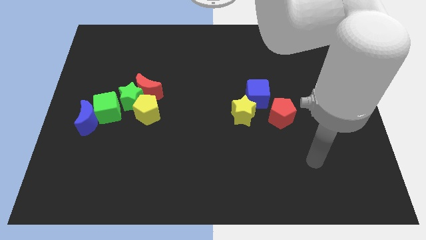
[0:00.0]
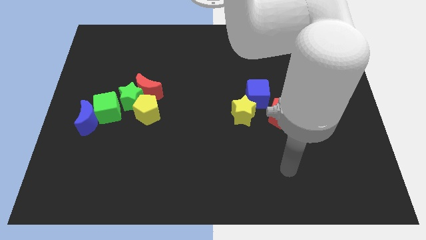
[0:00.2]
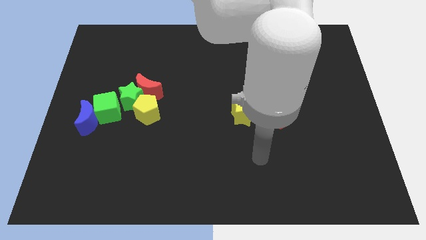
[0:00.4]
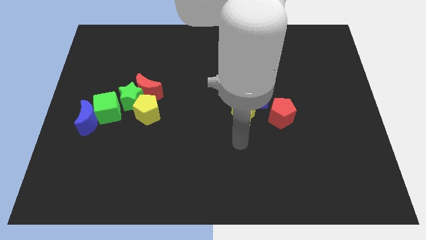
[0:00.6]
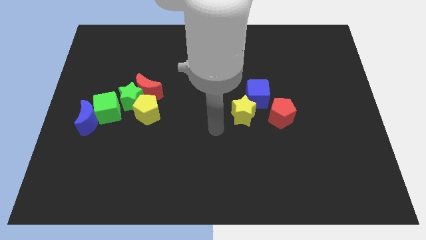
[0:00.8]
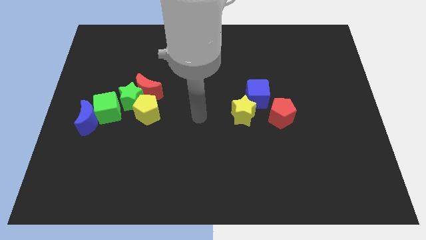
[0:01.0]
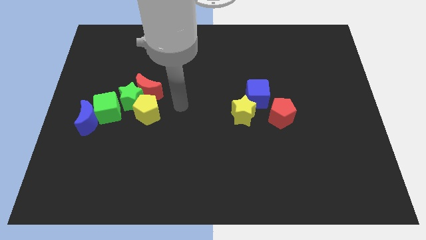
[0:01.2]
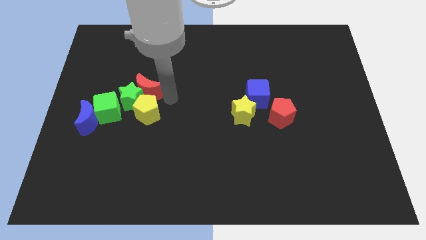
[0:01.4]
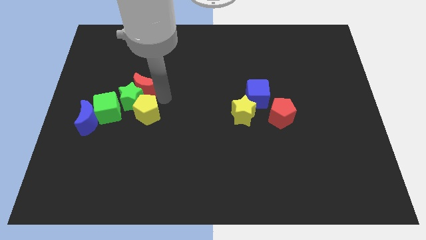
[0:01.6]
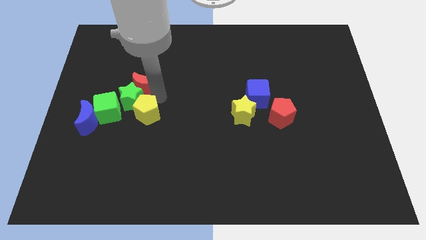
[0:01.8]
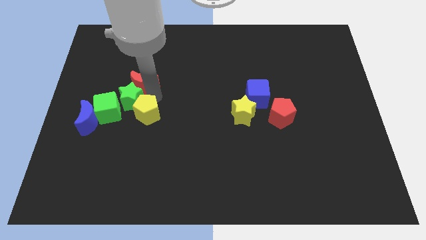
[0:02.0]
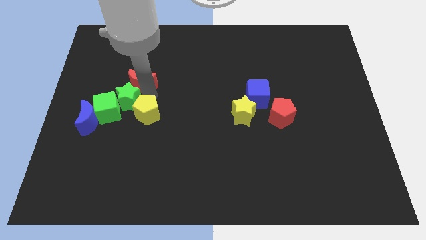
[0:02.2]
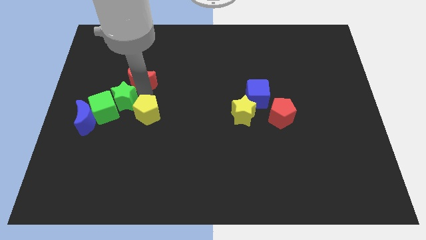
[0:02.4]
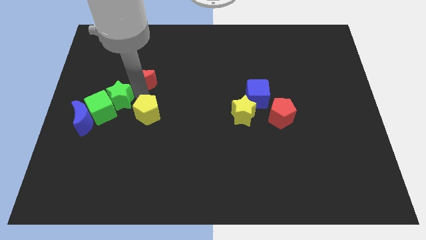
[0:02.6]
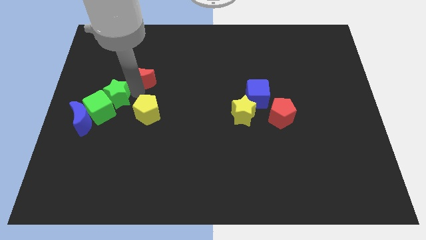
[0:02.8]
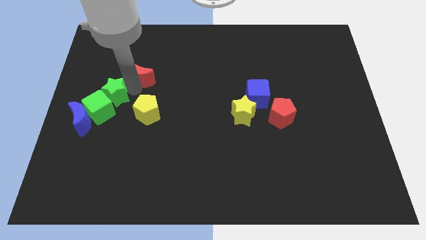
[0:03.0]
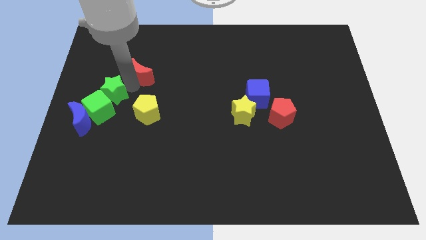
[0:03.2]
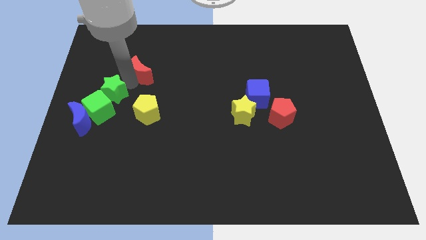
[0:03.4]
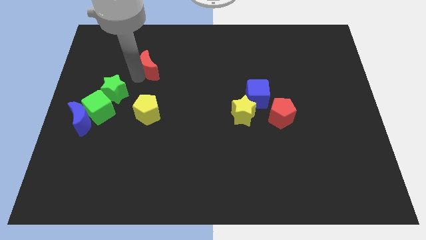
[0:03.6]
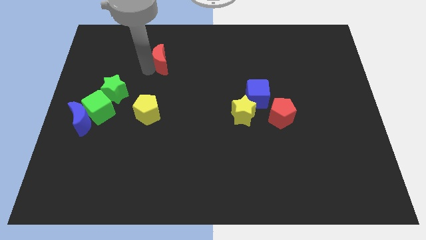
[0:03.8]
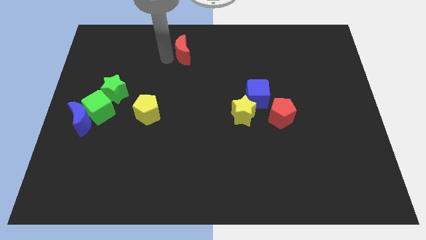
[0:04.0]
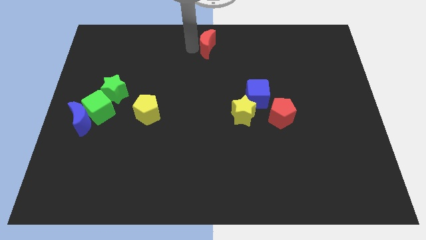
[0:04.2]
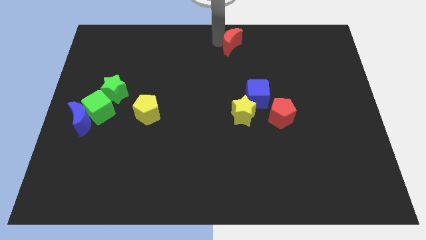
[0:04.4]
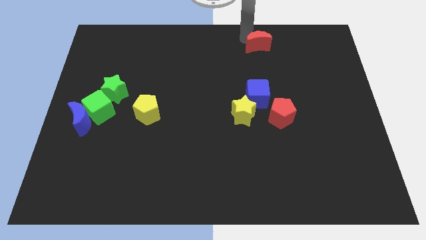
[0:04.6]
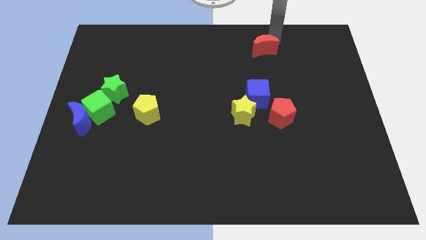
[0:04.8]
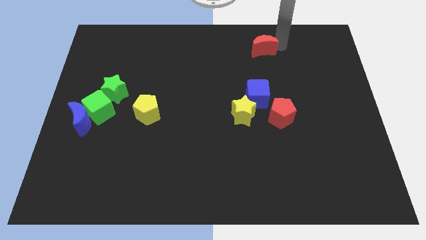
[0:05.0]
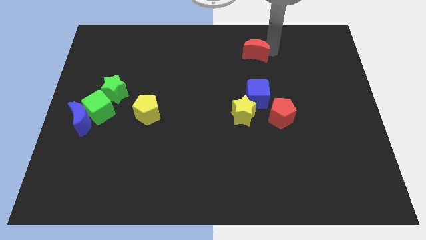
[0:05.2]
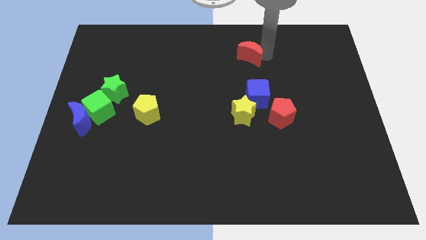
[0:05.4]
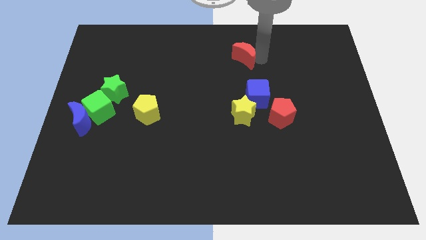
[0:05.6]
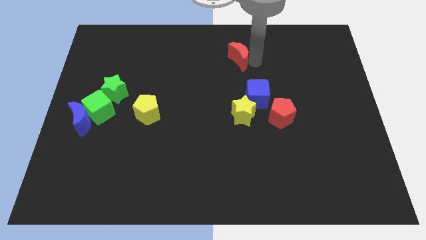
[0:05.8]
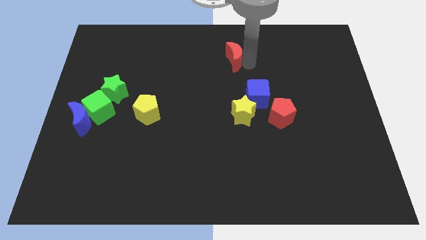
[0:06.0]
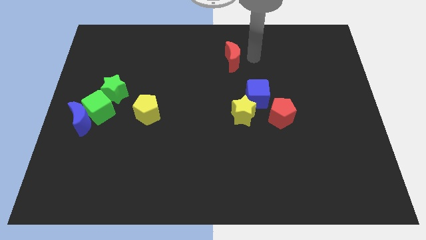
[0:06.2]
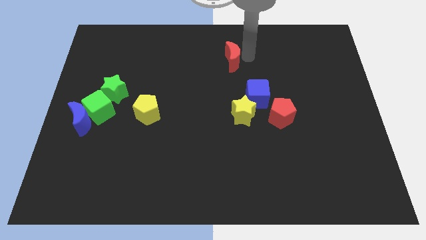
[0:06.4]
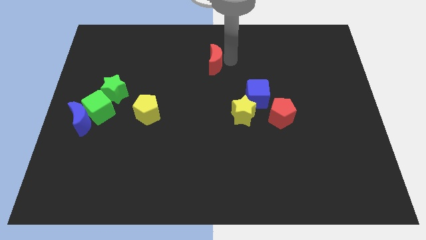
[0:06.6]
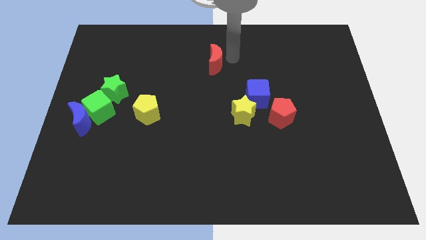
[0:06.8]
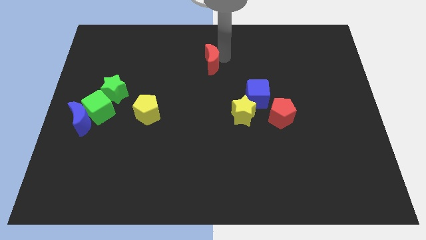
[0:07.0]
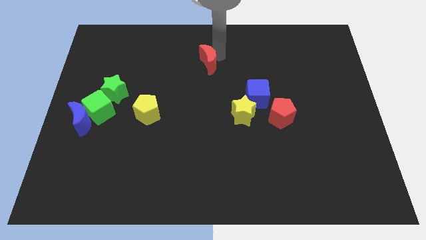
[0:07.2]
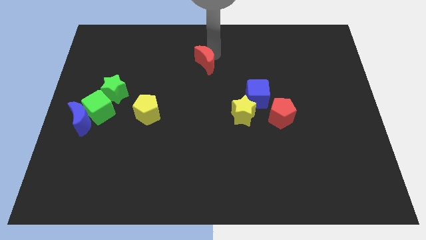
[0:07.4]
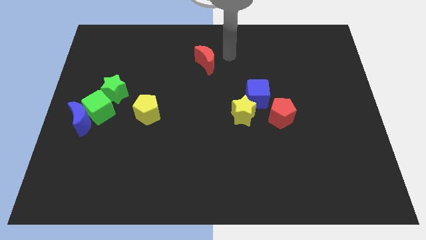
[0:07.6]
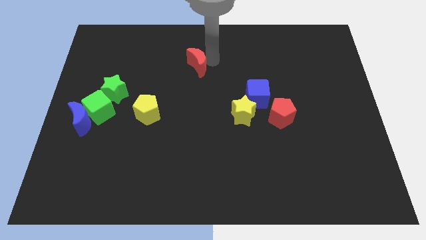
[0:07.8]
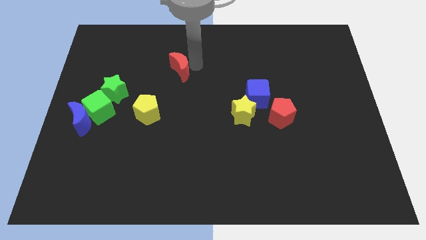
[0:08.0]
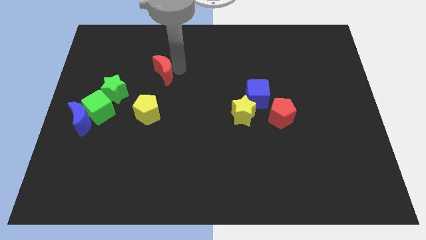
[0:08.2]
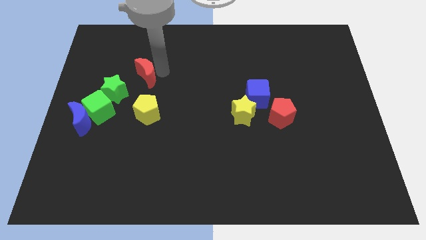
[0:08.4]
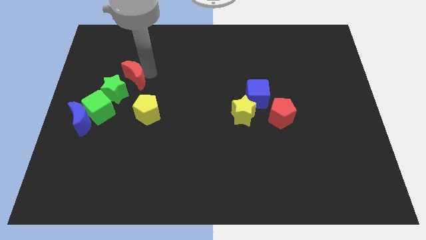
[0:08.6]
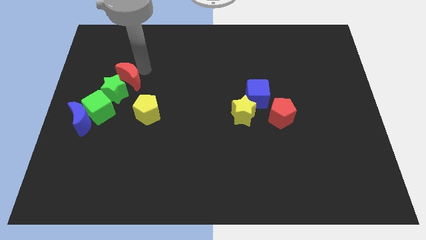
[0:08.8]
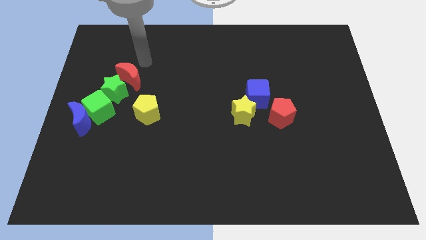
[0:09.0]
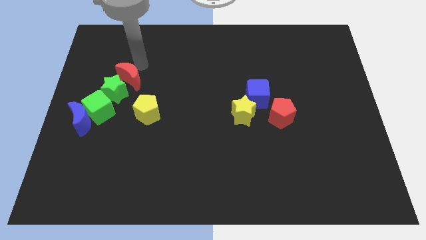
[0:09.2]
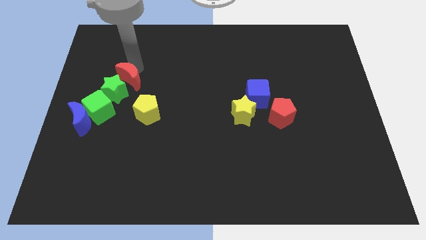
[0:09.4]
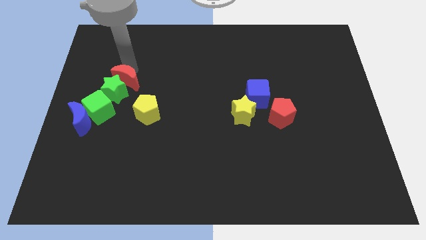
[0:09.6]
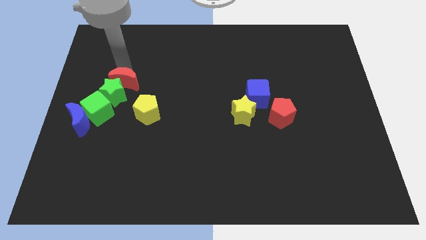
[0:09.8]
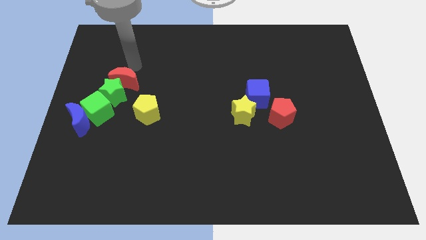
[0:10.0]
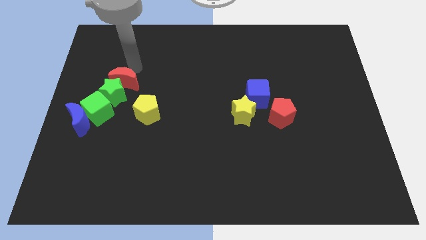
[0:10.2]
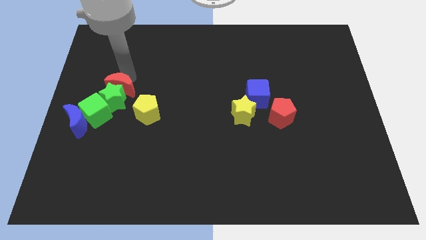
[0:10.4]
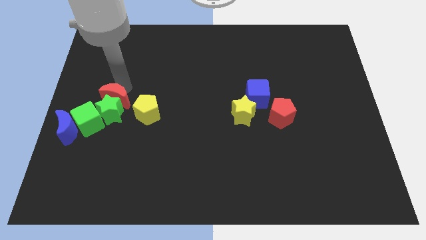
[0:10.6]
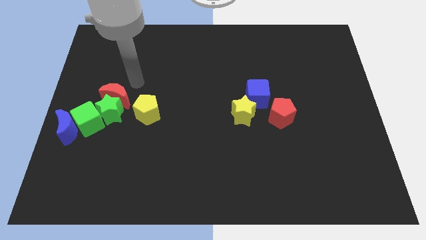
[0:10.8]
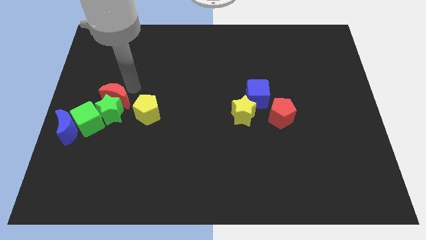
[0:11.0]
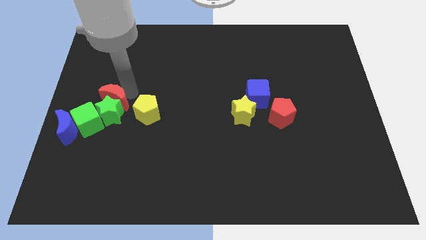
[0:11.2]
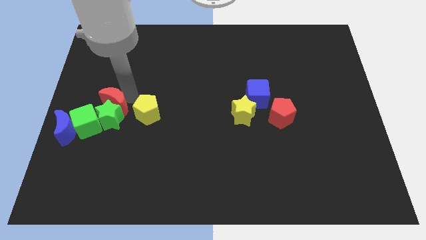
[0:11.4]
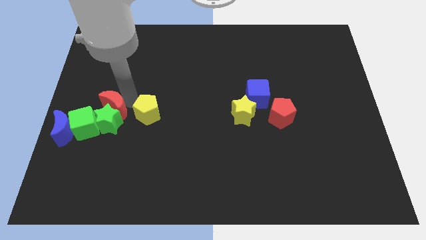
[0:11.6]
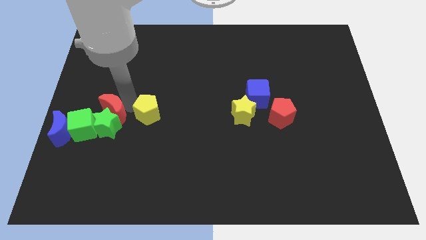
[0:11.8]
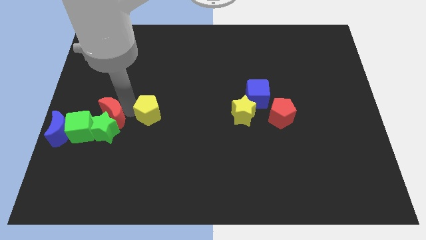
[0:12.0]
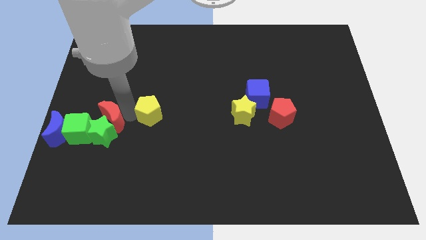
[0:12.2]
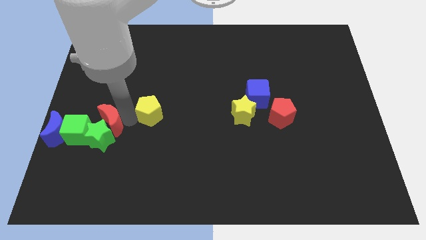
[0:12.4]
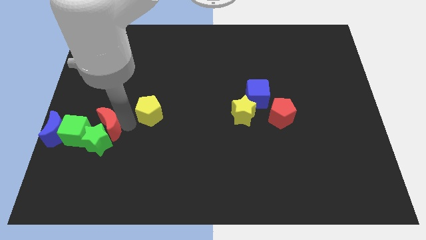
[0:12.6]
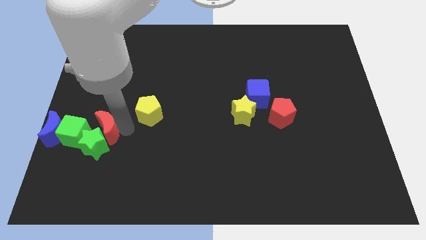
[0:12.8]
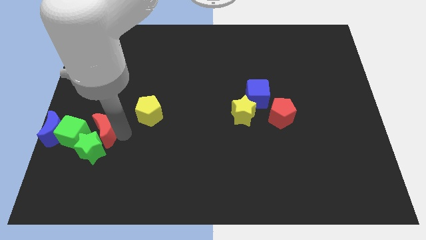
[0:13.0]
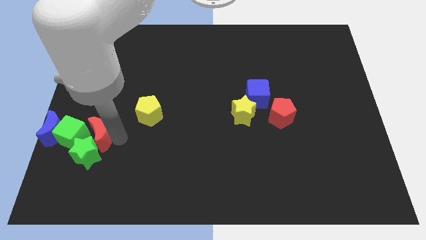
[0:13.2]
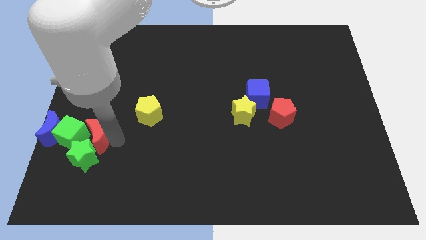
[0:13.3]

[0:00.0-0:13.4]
put the red moon next to the green cube

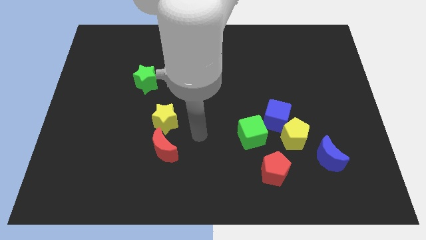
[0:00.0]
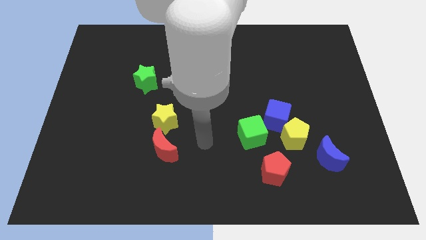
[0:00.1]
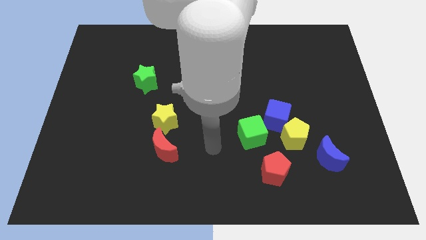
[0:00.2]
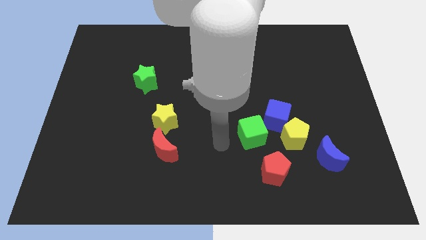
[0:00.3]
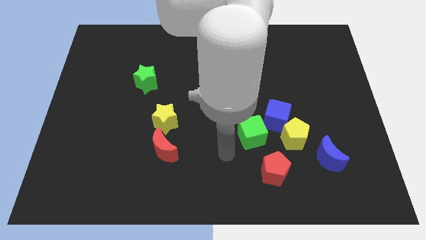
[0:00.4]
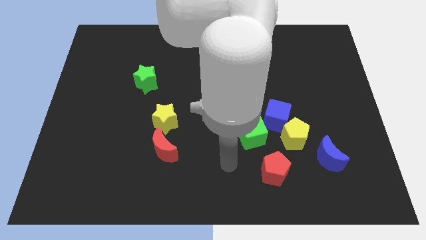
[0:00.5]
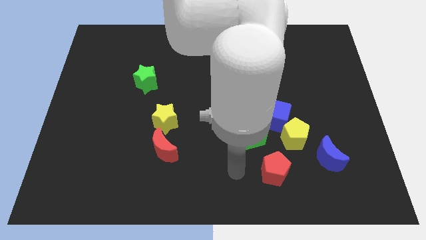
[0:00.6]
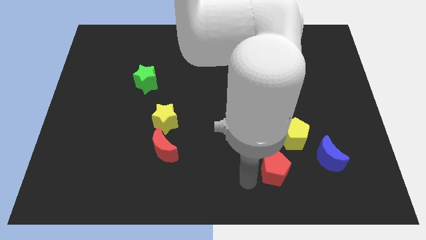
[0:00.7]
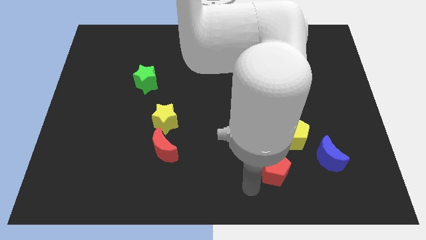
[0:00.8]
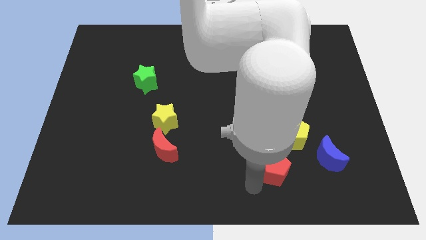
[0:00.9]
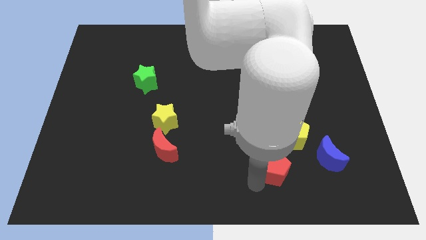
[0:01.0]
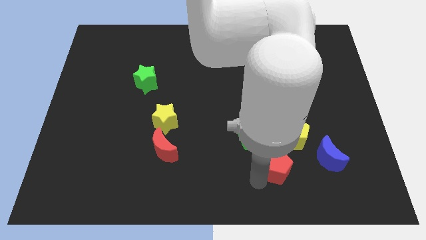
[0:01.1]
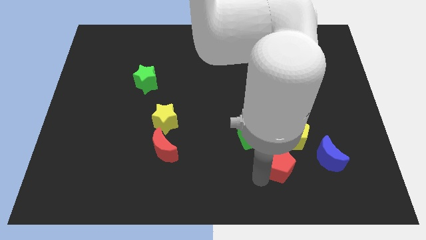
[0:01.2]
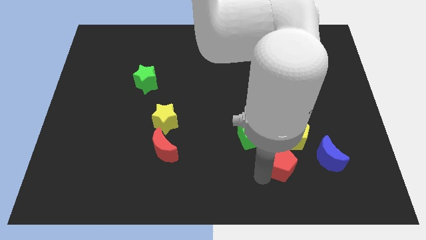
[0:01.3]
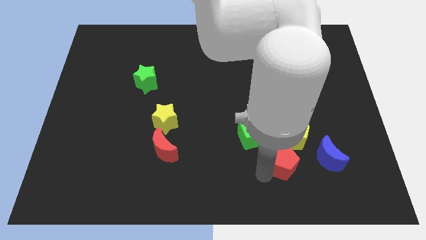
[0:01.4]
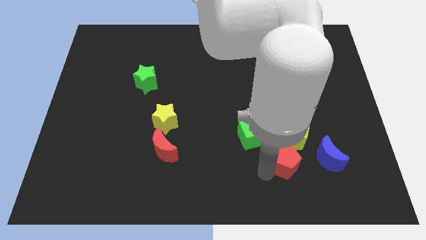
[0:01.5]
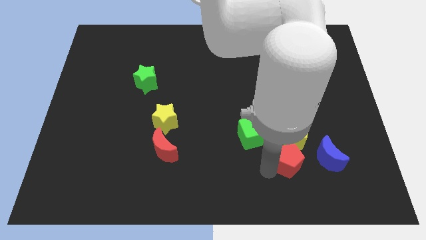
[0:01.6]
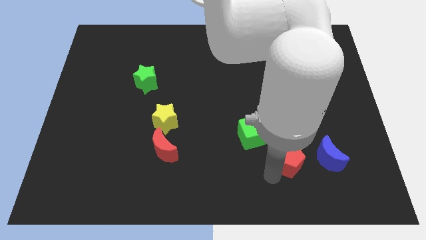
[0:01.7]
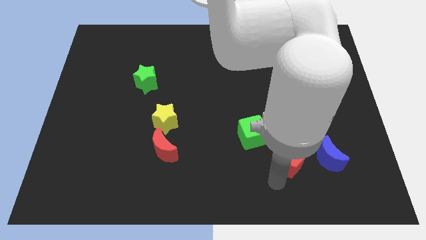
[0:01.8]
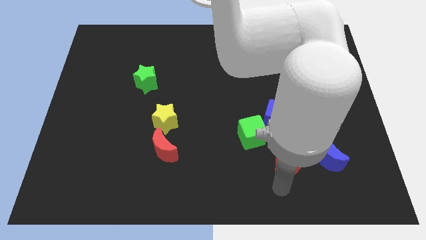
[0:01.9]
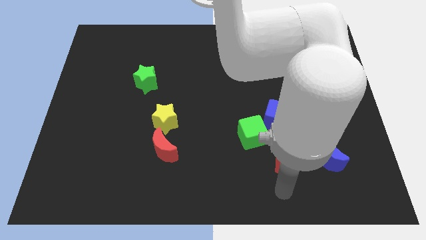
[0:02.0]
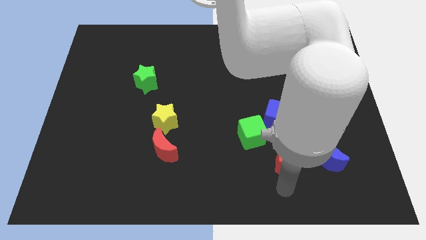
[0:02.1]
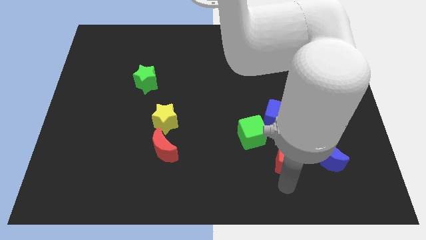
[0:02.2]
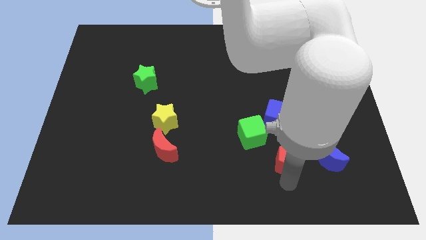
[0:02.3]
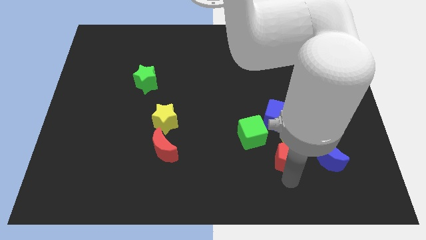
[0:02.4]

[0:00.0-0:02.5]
put the red pentagon to the yellow pentagon
